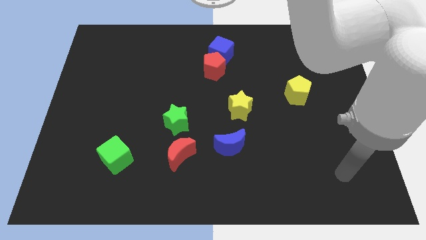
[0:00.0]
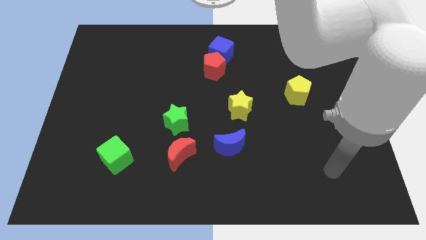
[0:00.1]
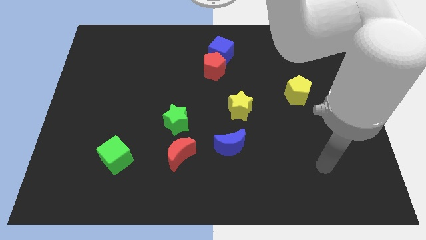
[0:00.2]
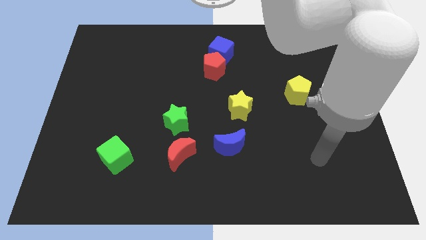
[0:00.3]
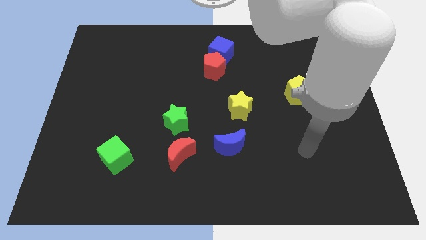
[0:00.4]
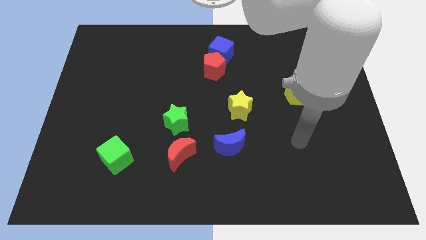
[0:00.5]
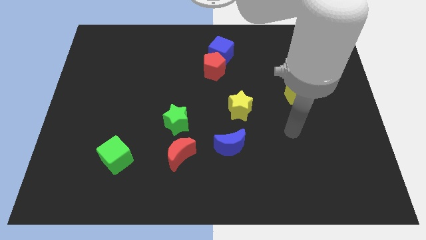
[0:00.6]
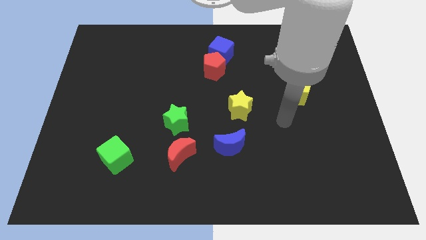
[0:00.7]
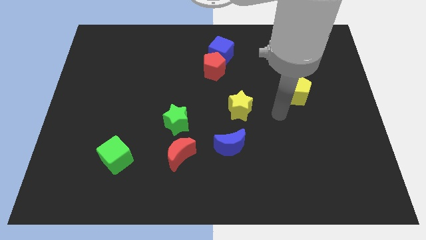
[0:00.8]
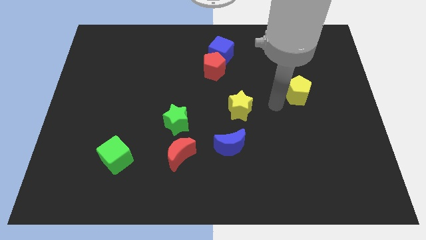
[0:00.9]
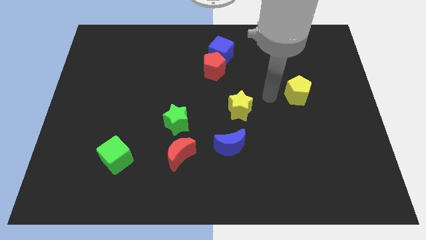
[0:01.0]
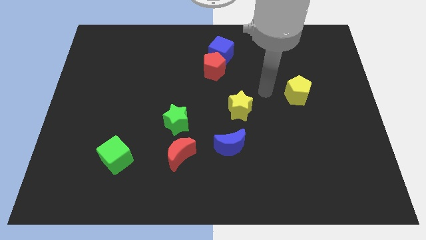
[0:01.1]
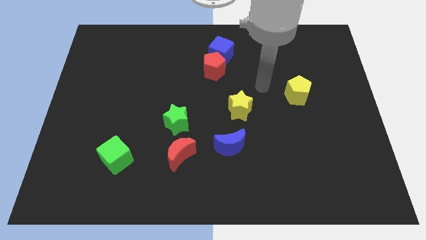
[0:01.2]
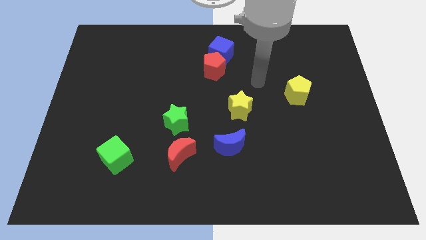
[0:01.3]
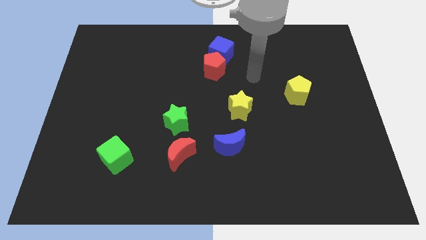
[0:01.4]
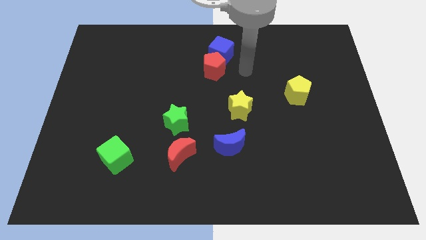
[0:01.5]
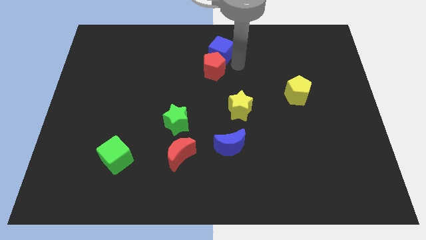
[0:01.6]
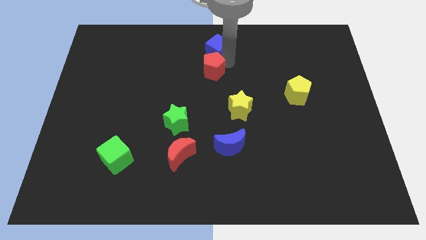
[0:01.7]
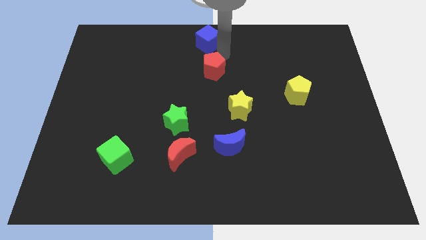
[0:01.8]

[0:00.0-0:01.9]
move the red pentagon away from the blue cube

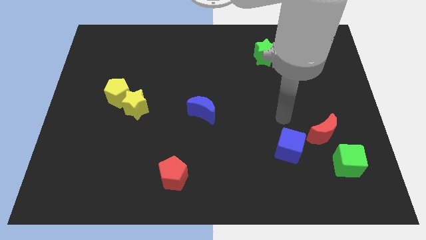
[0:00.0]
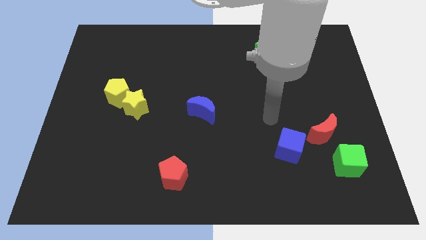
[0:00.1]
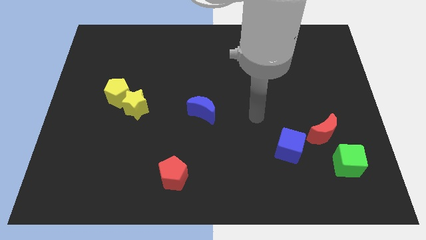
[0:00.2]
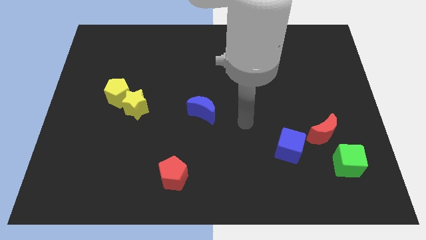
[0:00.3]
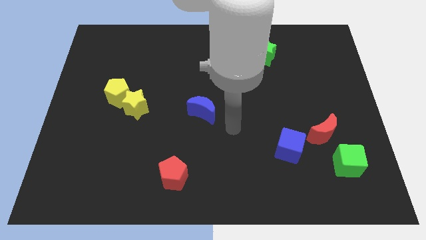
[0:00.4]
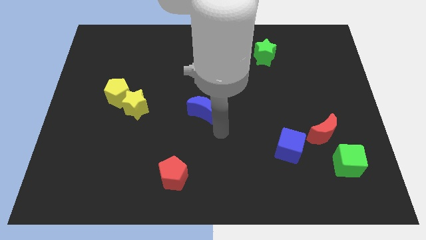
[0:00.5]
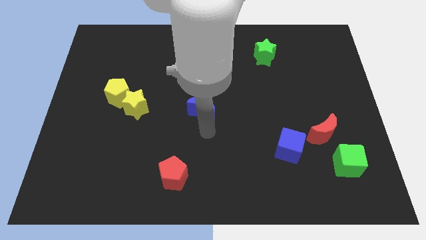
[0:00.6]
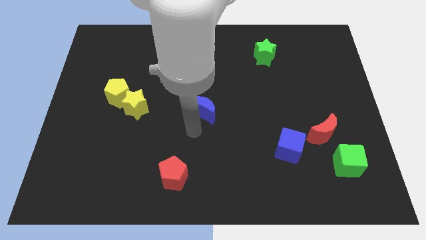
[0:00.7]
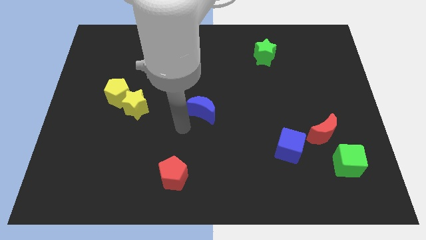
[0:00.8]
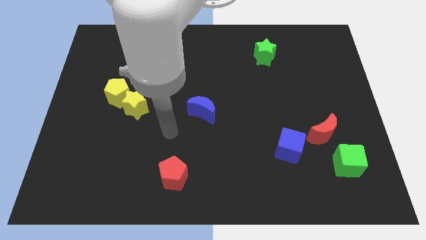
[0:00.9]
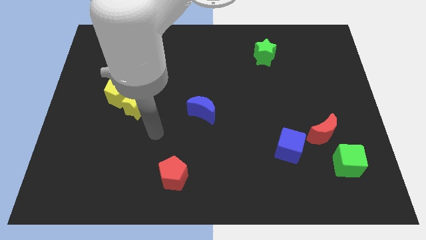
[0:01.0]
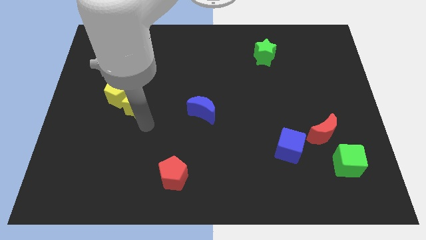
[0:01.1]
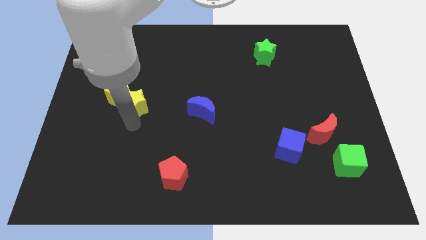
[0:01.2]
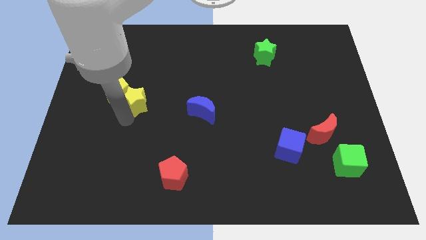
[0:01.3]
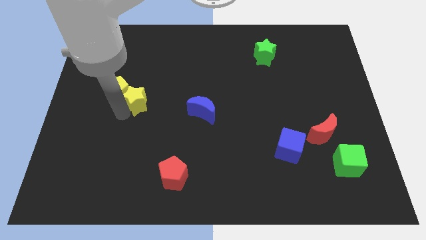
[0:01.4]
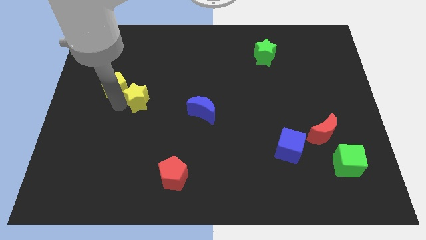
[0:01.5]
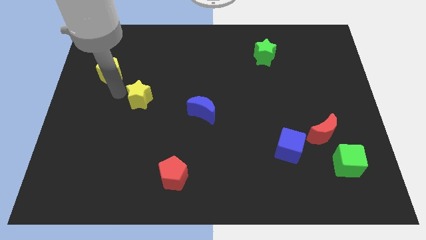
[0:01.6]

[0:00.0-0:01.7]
pull the yellow star apart from the yellow pentagon

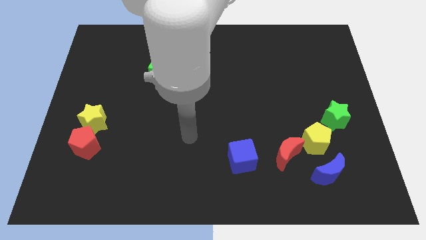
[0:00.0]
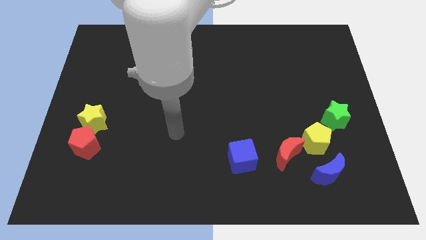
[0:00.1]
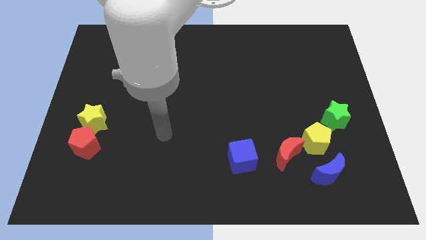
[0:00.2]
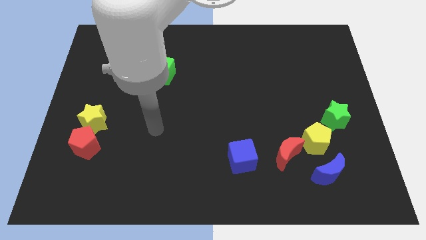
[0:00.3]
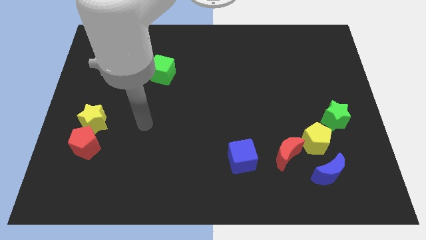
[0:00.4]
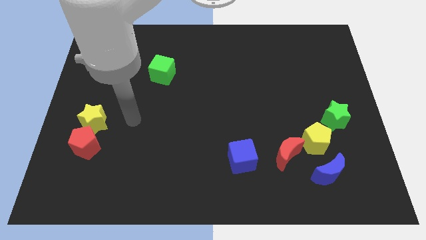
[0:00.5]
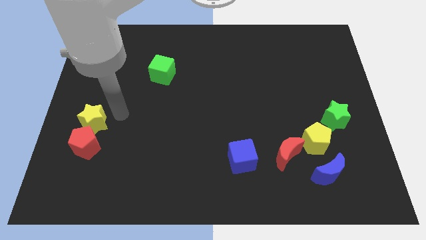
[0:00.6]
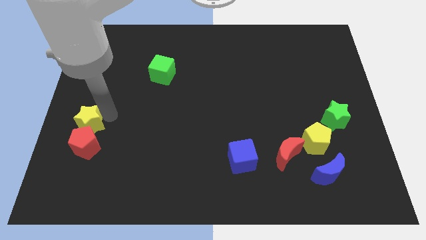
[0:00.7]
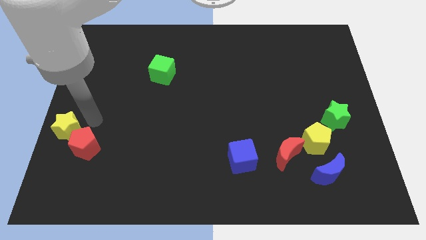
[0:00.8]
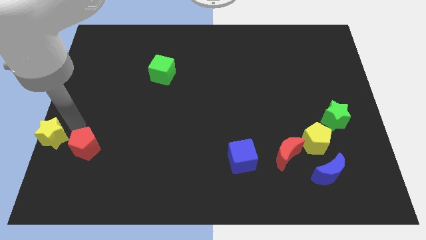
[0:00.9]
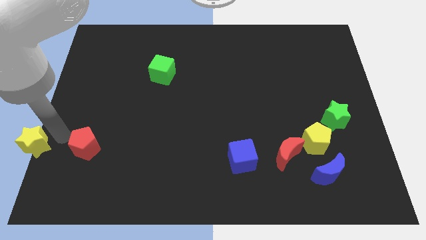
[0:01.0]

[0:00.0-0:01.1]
separate the red pentagon from the yellow star

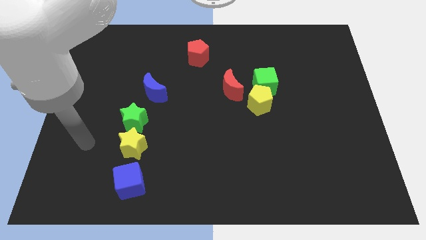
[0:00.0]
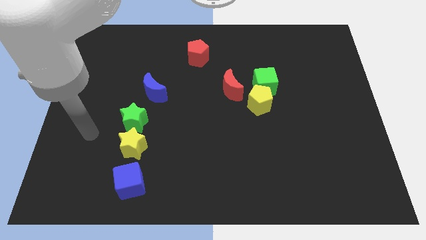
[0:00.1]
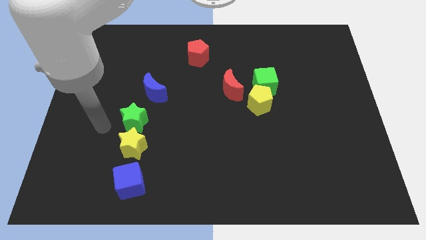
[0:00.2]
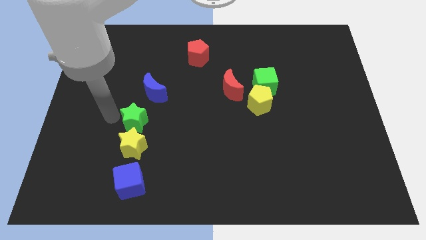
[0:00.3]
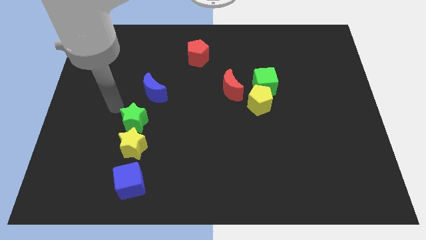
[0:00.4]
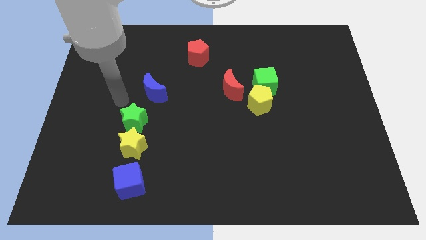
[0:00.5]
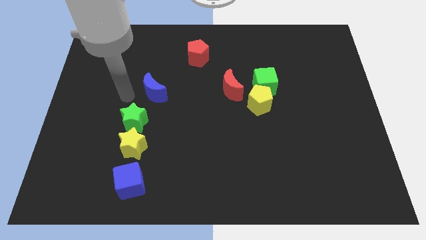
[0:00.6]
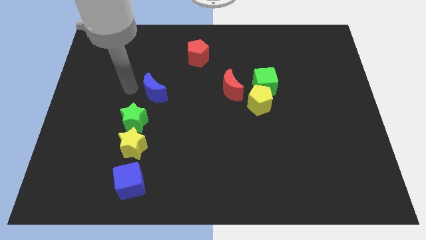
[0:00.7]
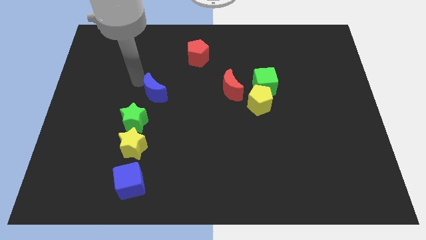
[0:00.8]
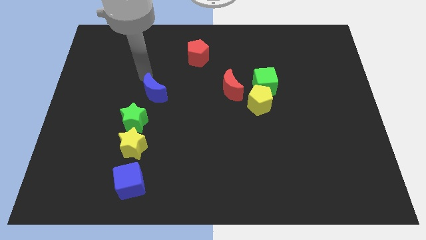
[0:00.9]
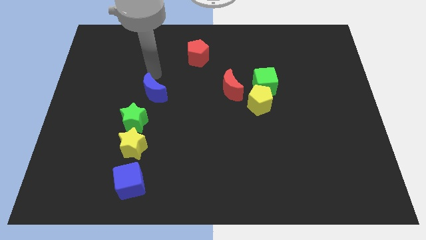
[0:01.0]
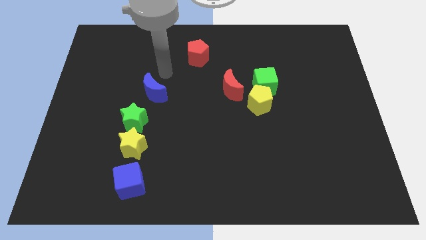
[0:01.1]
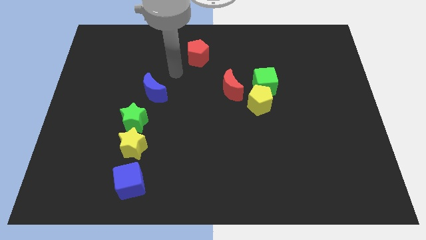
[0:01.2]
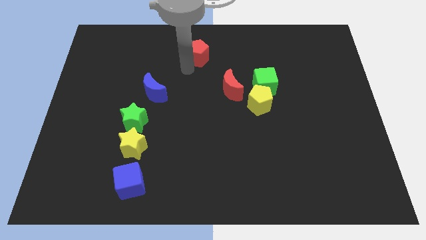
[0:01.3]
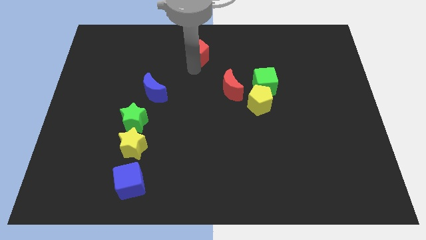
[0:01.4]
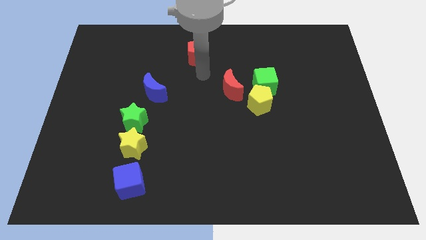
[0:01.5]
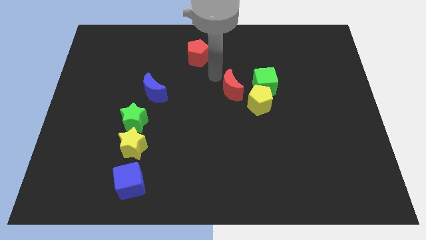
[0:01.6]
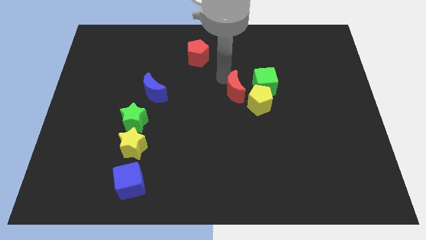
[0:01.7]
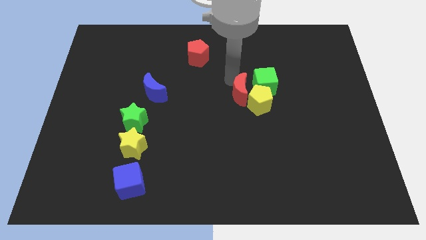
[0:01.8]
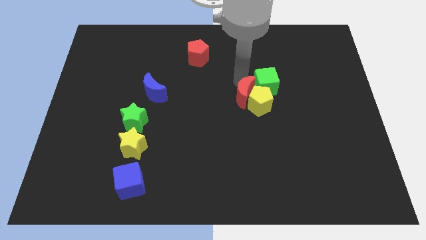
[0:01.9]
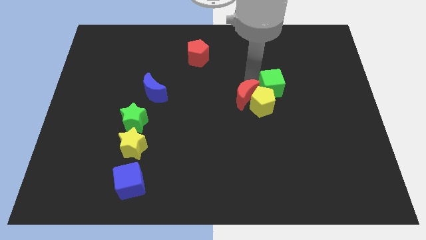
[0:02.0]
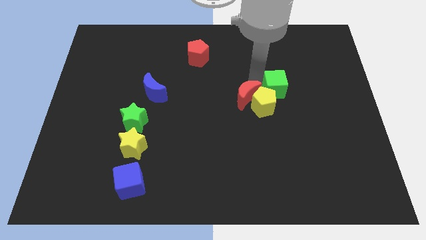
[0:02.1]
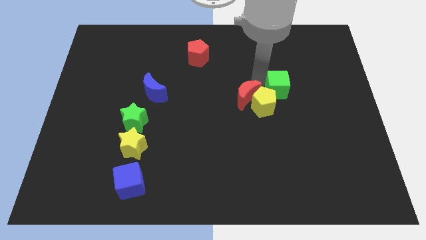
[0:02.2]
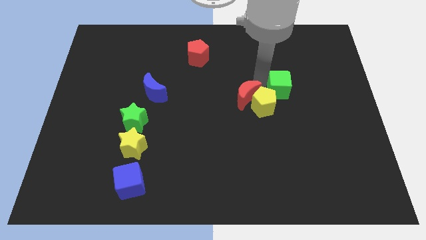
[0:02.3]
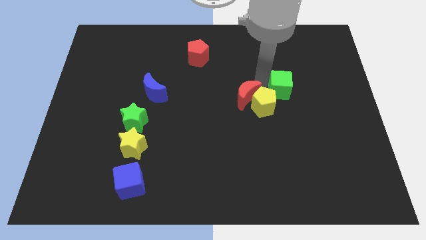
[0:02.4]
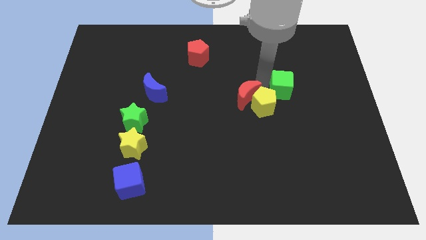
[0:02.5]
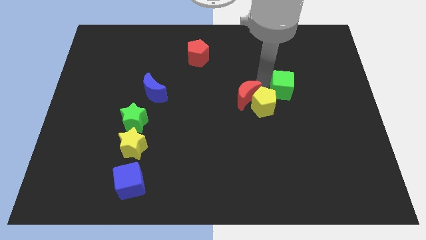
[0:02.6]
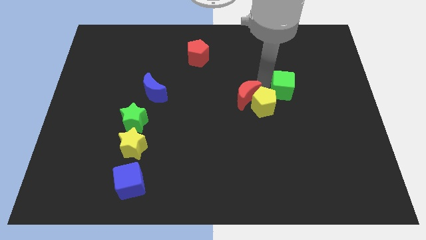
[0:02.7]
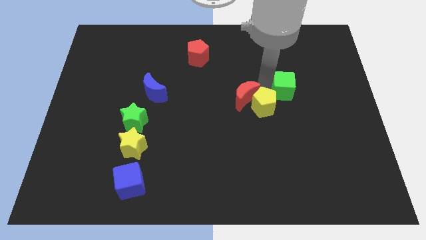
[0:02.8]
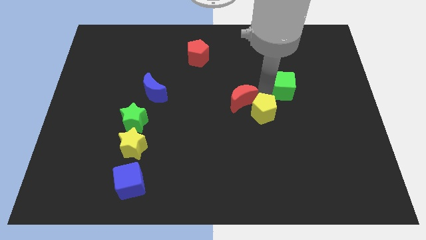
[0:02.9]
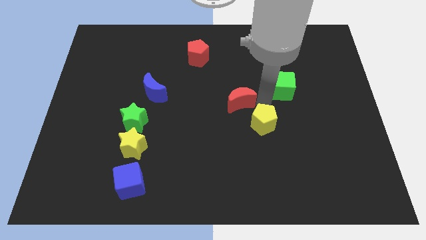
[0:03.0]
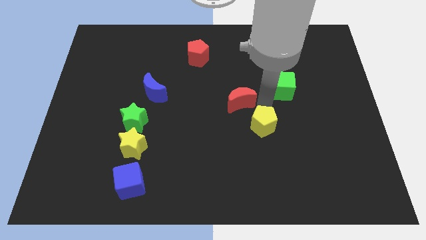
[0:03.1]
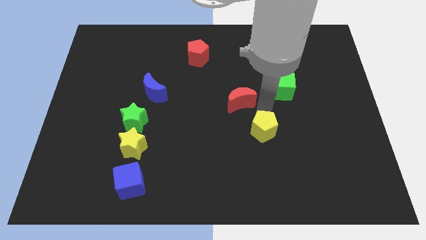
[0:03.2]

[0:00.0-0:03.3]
move the yellow pentagon away from the green cube and red moon

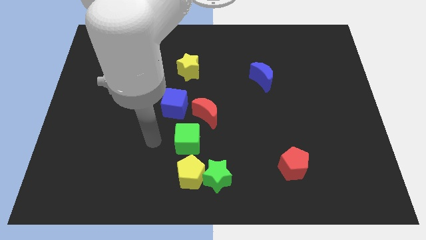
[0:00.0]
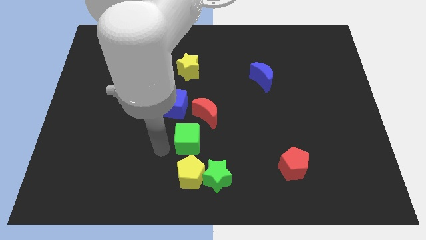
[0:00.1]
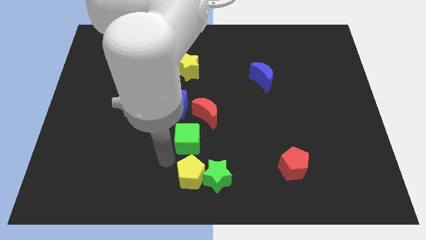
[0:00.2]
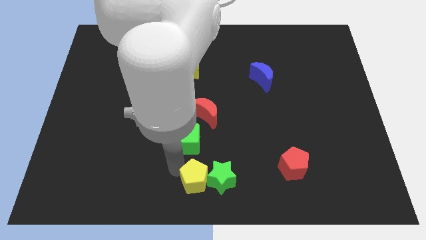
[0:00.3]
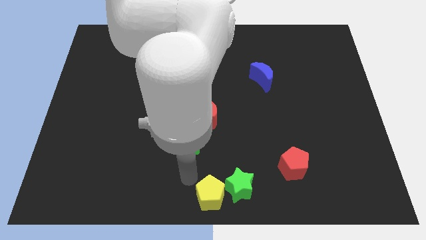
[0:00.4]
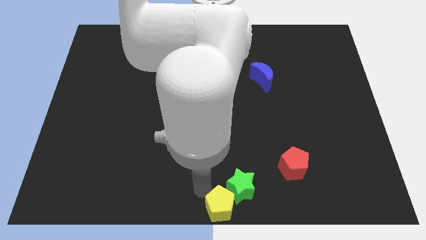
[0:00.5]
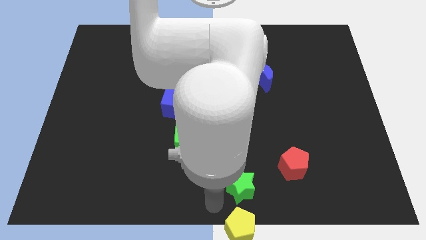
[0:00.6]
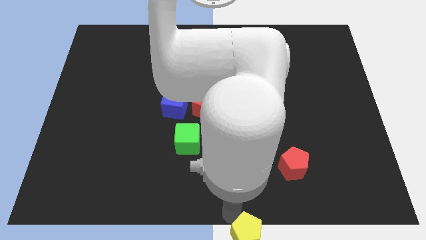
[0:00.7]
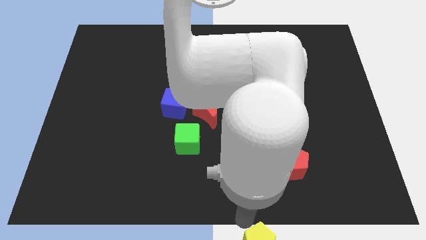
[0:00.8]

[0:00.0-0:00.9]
separate the green star from the yellow pentagon

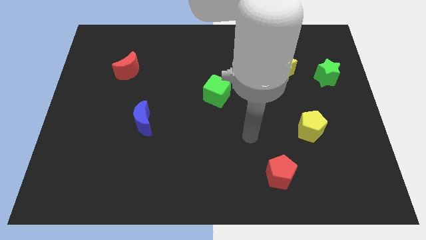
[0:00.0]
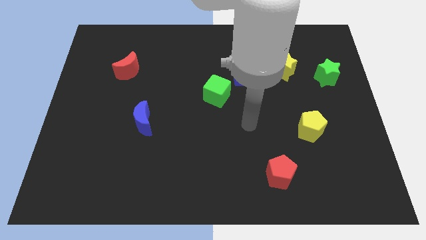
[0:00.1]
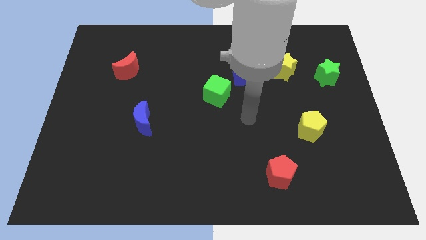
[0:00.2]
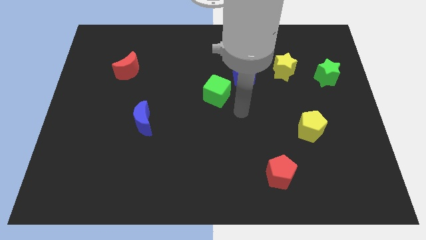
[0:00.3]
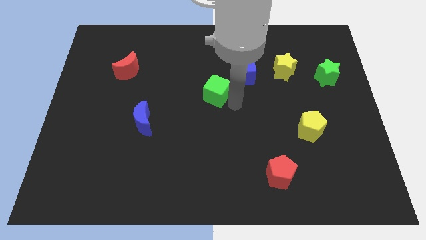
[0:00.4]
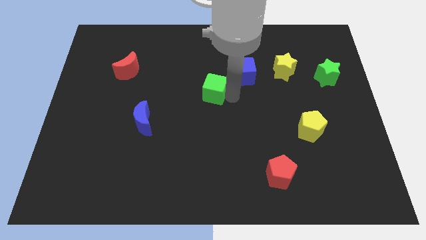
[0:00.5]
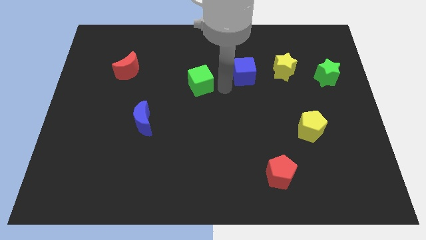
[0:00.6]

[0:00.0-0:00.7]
move the blue cube away from the green cube
